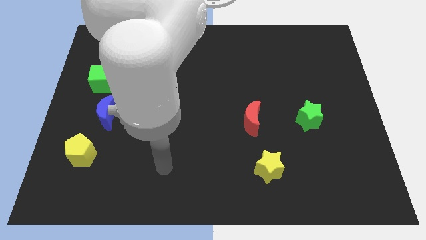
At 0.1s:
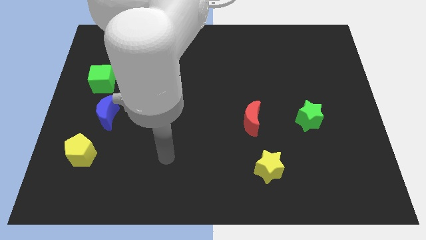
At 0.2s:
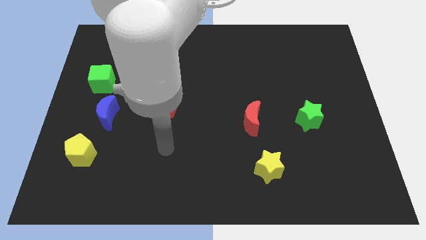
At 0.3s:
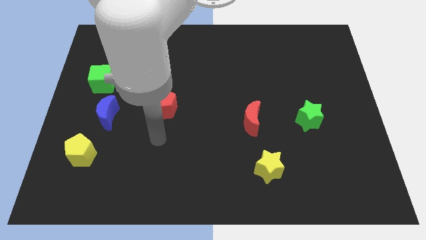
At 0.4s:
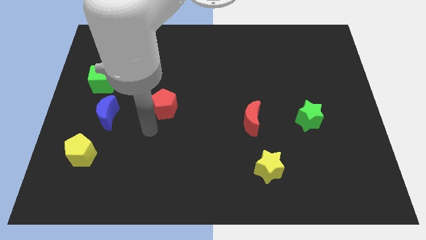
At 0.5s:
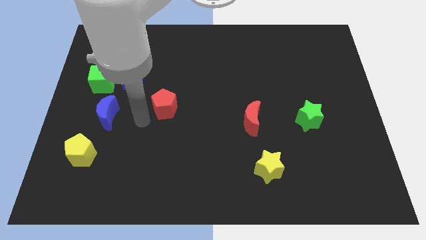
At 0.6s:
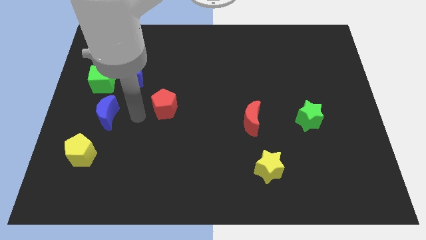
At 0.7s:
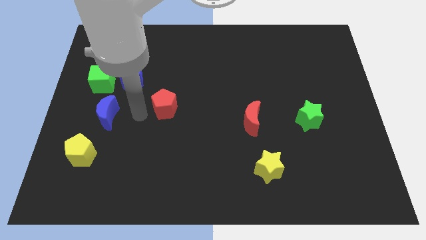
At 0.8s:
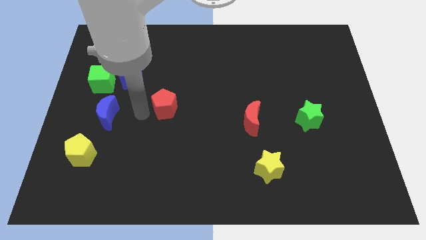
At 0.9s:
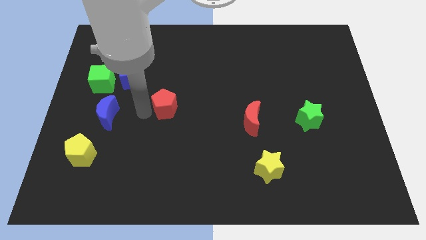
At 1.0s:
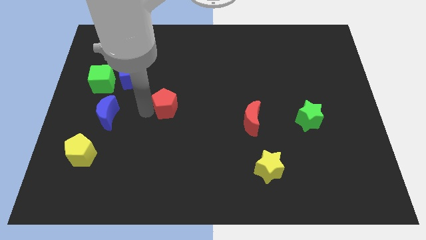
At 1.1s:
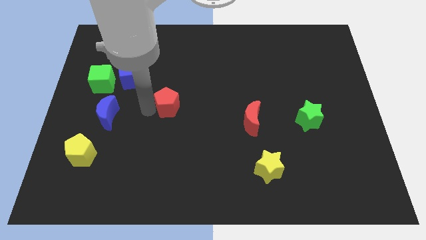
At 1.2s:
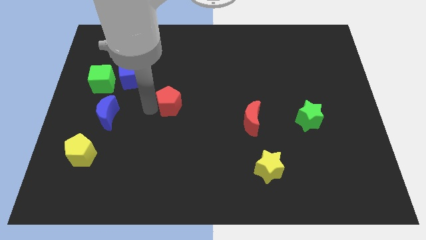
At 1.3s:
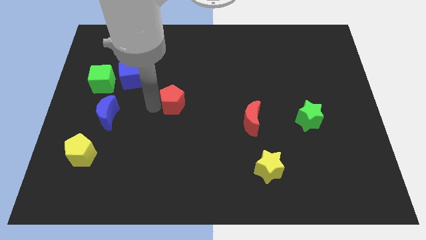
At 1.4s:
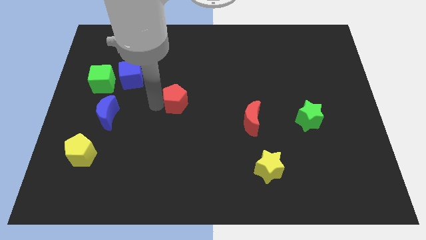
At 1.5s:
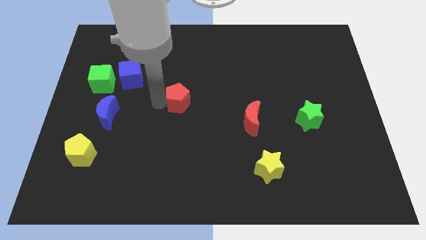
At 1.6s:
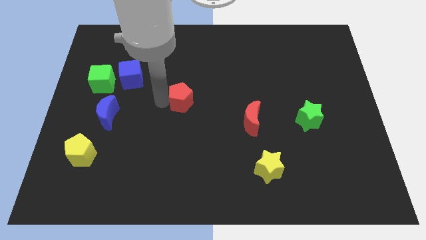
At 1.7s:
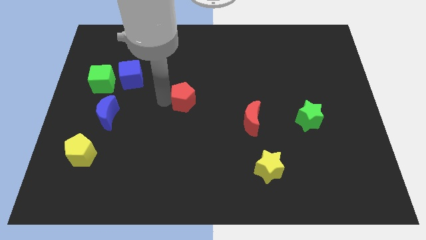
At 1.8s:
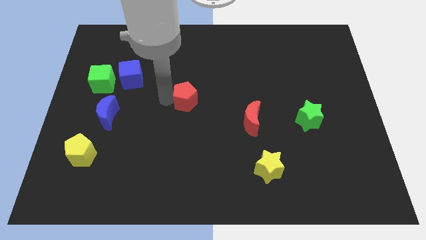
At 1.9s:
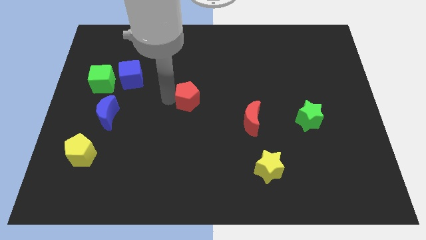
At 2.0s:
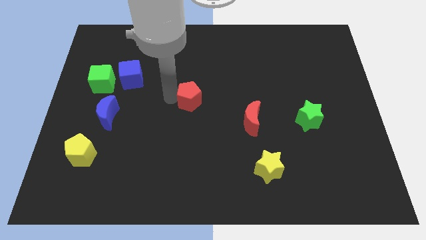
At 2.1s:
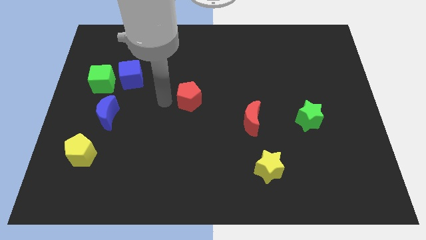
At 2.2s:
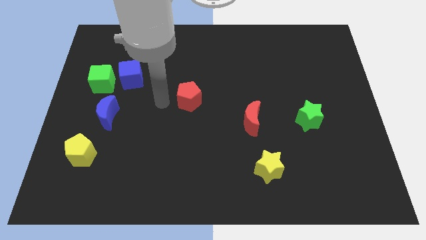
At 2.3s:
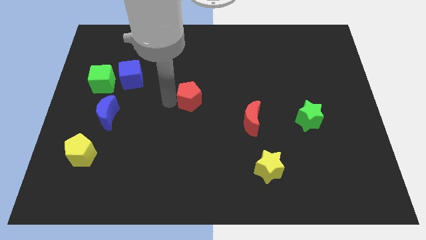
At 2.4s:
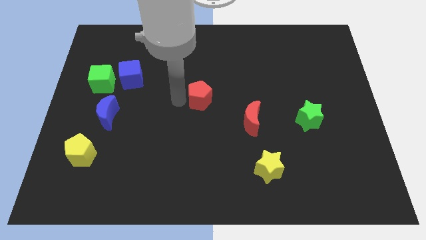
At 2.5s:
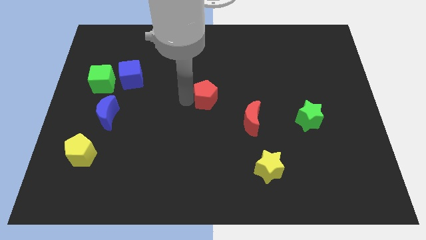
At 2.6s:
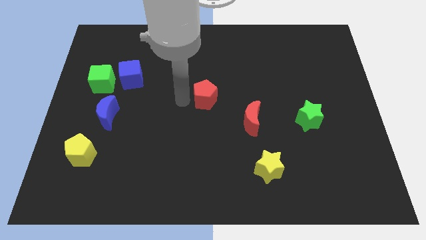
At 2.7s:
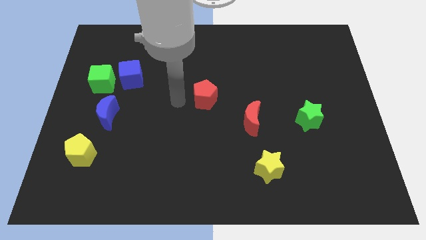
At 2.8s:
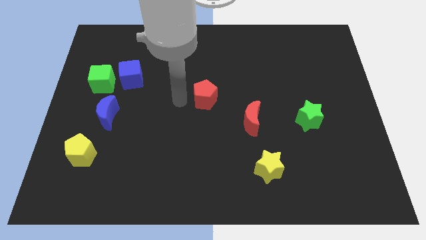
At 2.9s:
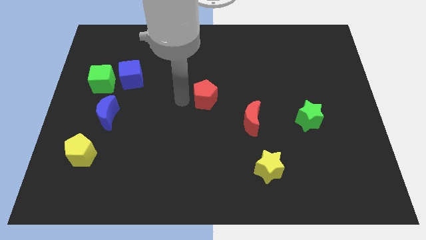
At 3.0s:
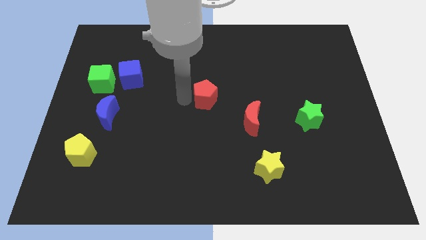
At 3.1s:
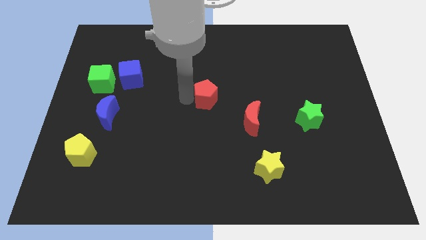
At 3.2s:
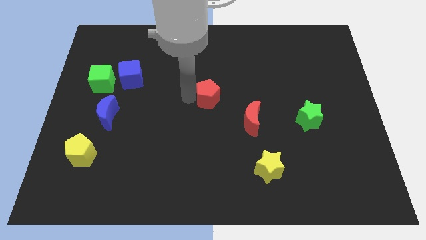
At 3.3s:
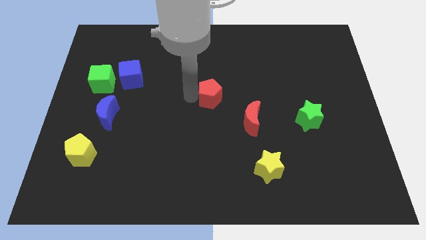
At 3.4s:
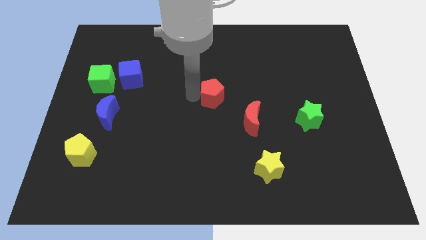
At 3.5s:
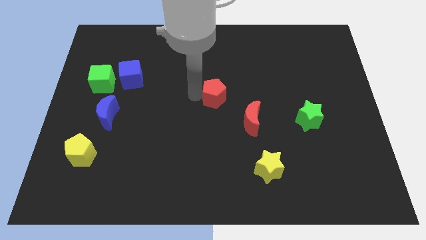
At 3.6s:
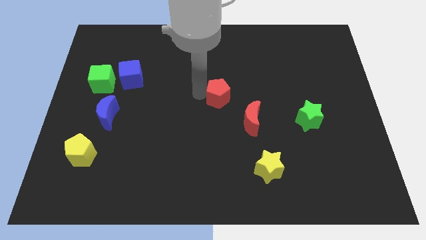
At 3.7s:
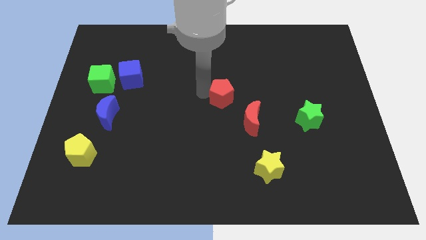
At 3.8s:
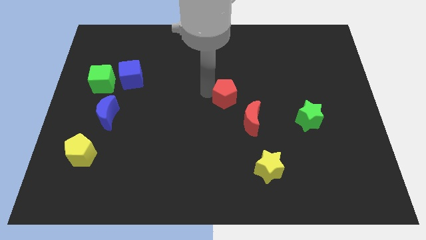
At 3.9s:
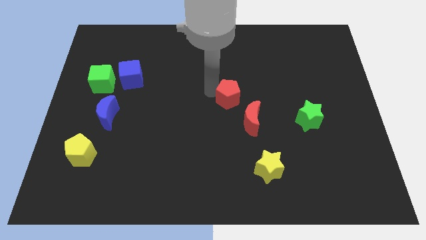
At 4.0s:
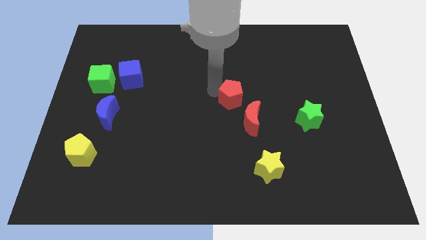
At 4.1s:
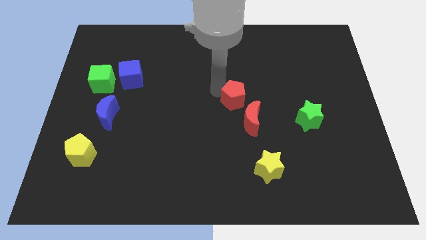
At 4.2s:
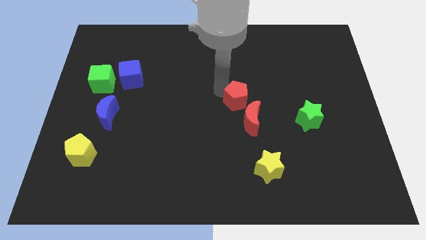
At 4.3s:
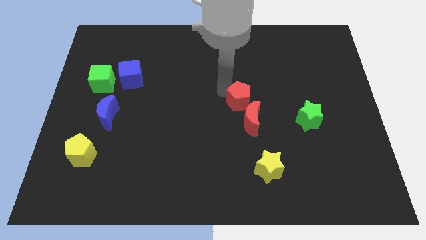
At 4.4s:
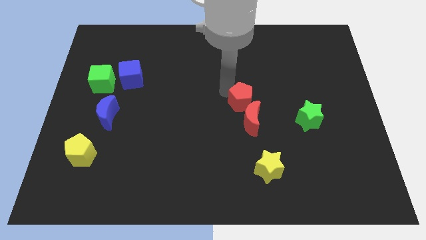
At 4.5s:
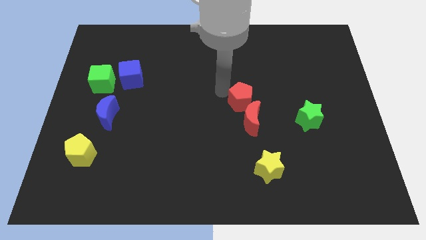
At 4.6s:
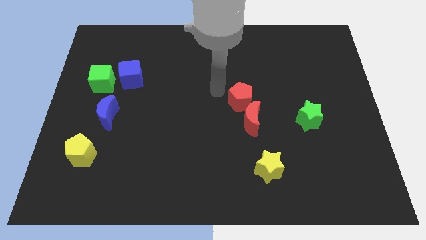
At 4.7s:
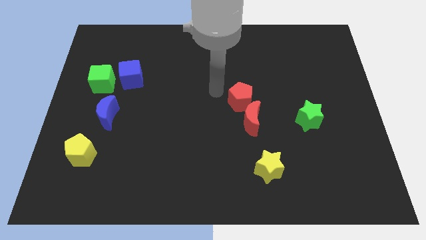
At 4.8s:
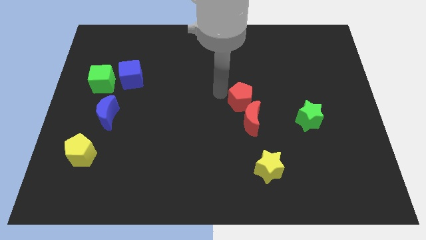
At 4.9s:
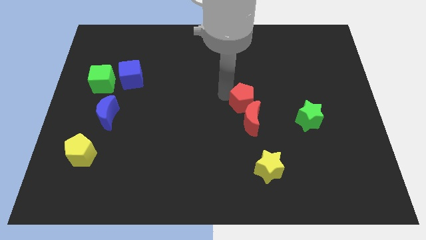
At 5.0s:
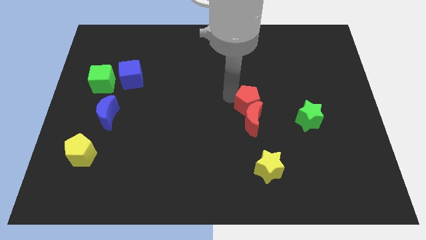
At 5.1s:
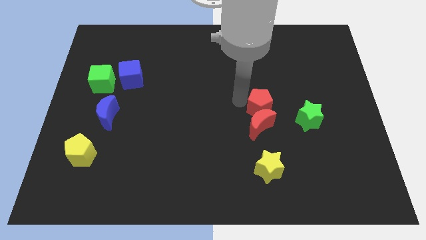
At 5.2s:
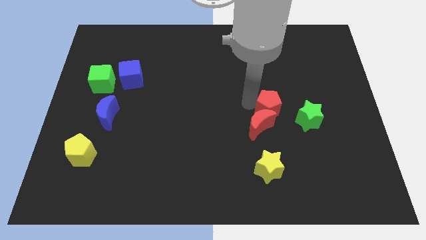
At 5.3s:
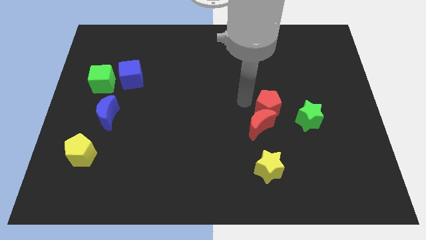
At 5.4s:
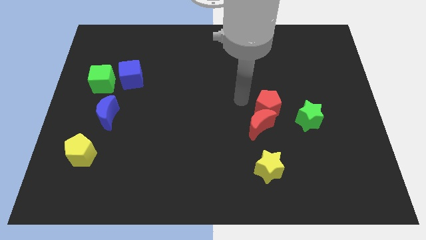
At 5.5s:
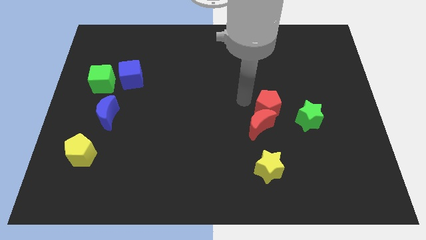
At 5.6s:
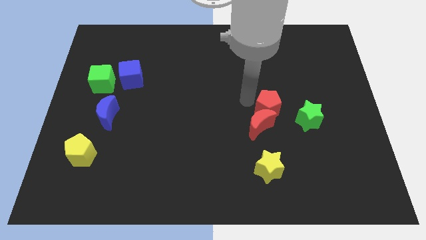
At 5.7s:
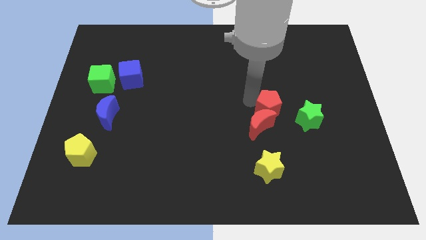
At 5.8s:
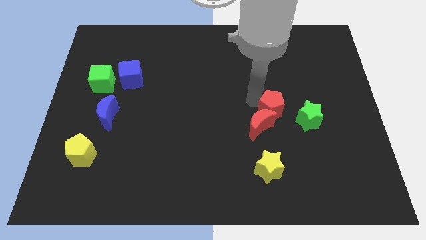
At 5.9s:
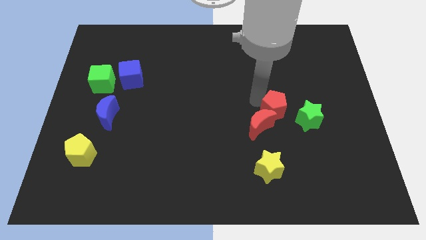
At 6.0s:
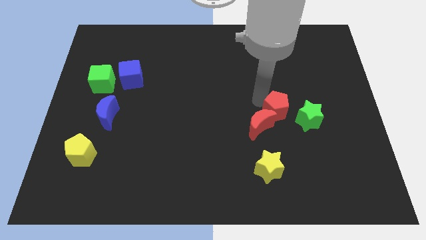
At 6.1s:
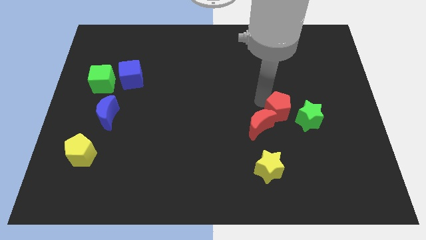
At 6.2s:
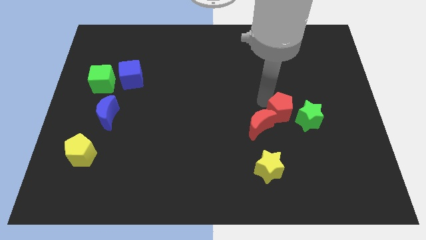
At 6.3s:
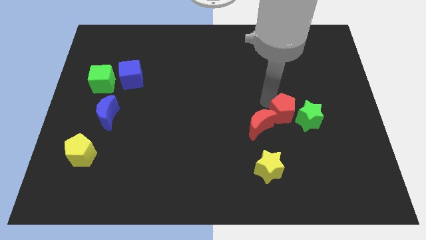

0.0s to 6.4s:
put the red pentagon to the green star
